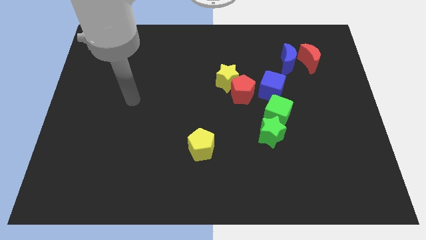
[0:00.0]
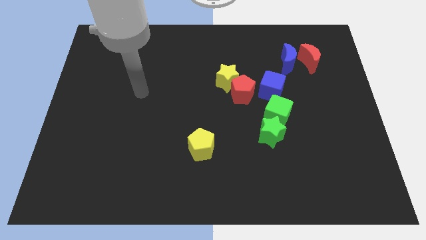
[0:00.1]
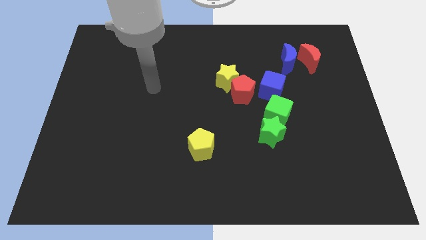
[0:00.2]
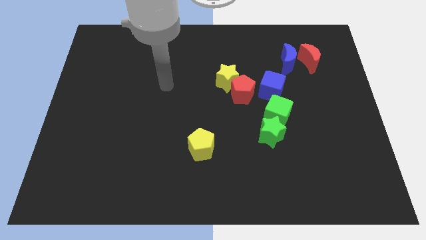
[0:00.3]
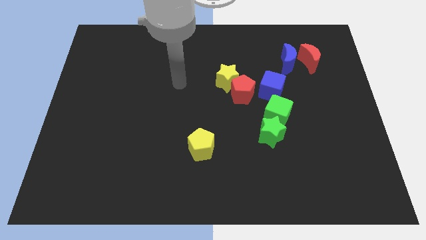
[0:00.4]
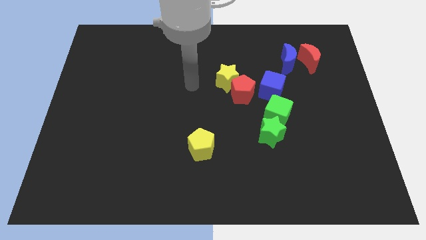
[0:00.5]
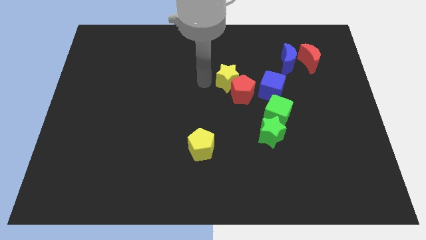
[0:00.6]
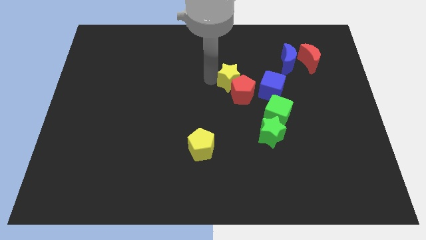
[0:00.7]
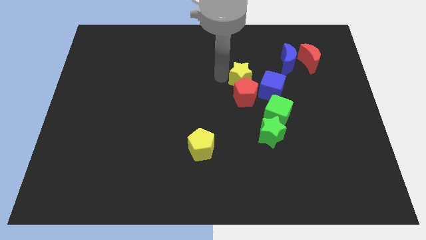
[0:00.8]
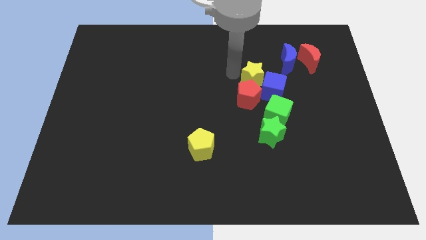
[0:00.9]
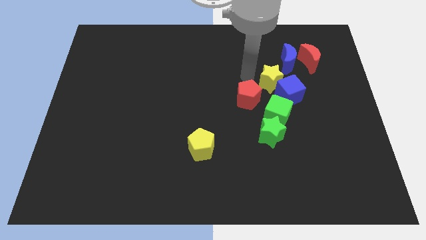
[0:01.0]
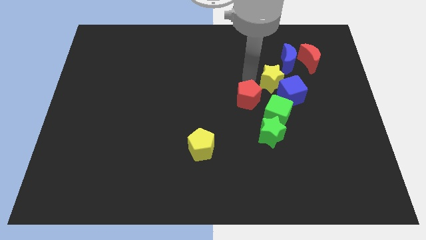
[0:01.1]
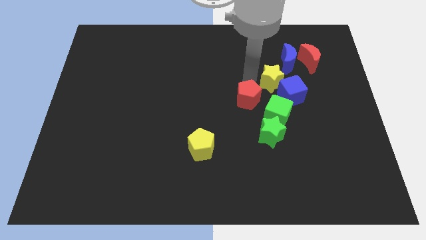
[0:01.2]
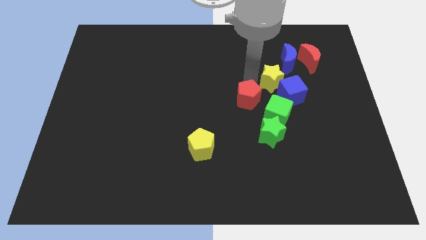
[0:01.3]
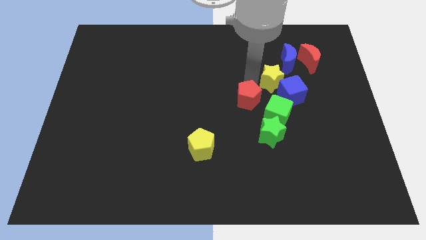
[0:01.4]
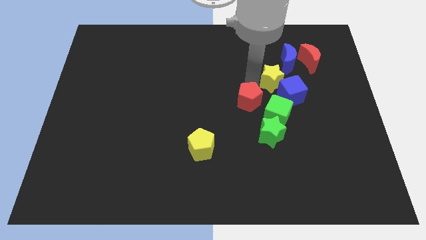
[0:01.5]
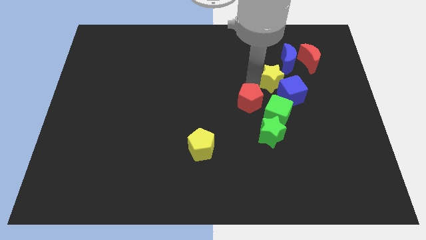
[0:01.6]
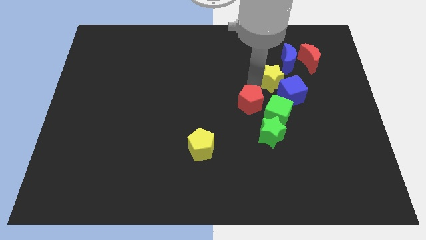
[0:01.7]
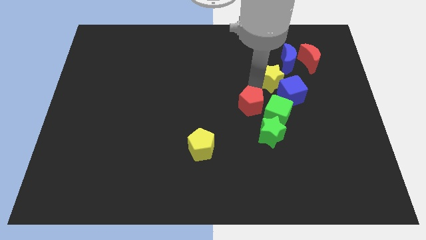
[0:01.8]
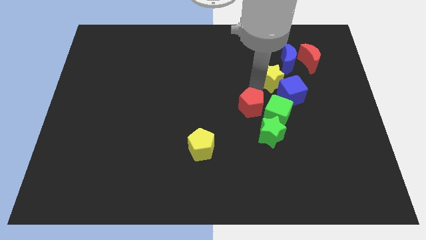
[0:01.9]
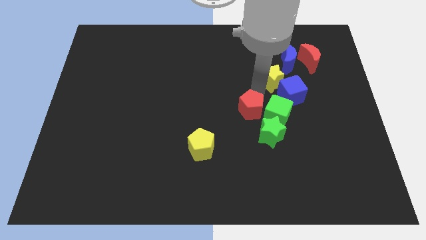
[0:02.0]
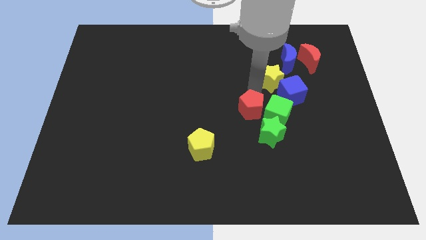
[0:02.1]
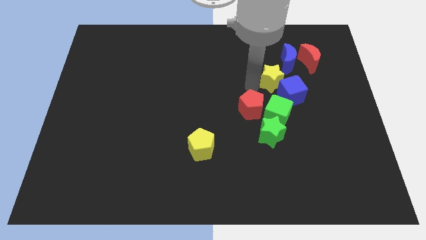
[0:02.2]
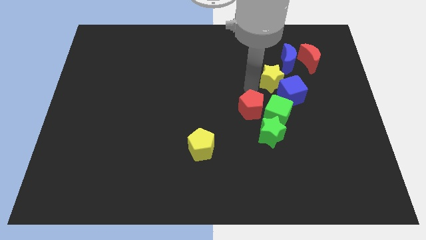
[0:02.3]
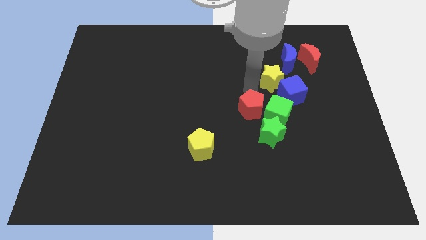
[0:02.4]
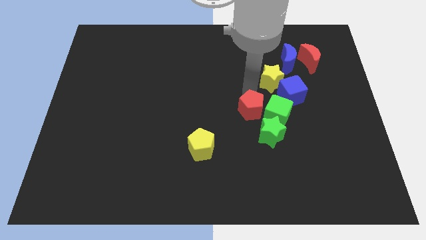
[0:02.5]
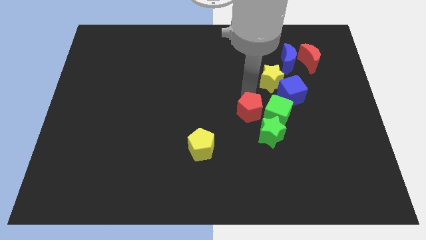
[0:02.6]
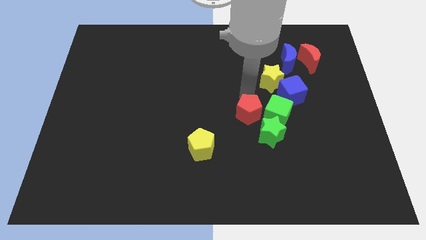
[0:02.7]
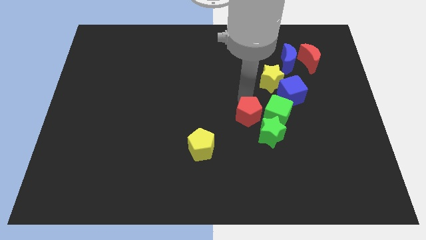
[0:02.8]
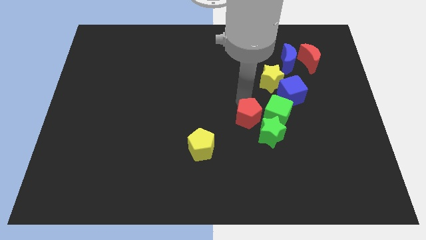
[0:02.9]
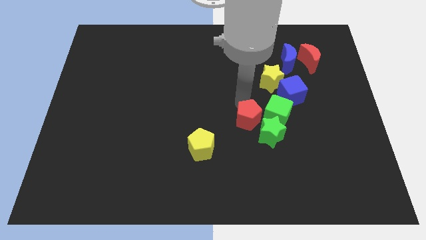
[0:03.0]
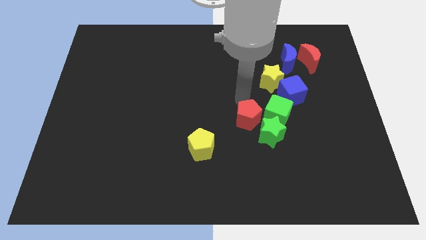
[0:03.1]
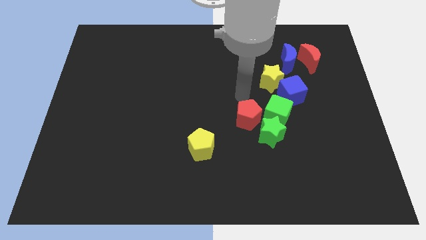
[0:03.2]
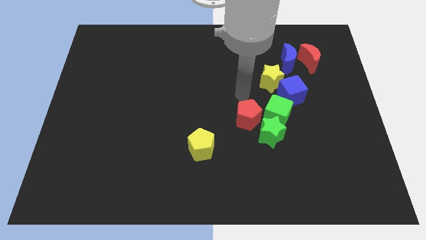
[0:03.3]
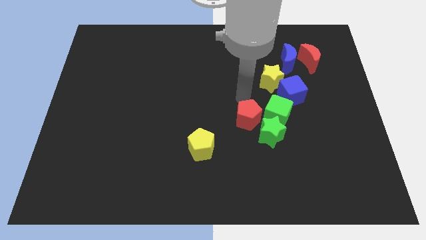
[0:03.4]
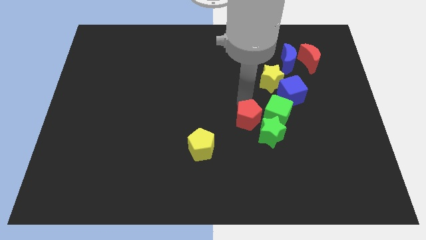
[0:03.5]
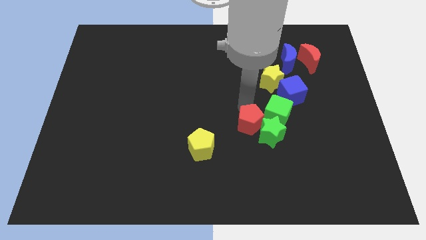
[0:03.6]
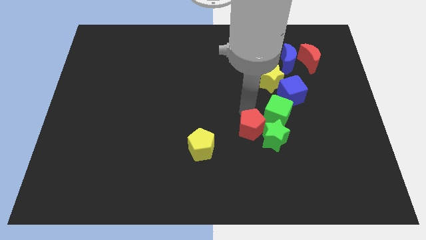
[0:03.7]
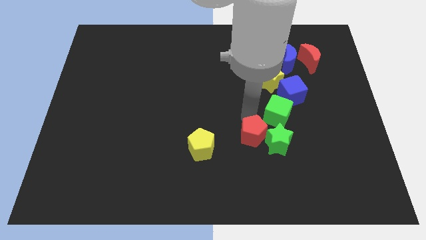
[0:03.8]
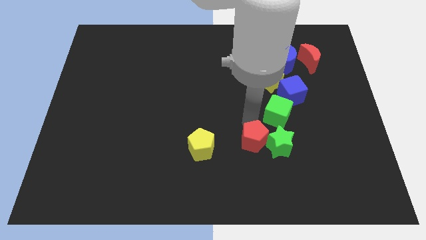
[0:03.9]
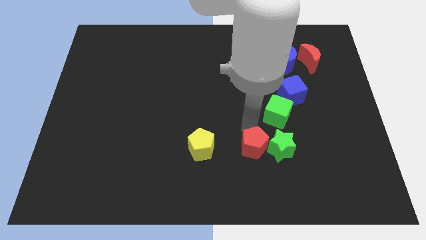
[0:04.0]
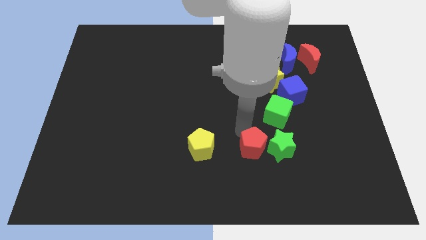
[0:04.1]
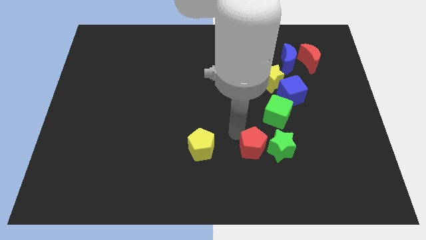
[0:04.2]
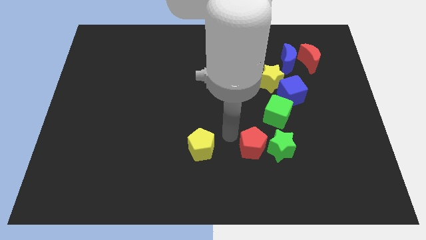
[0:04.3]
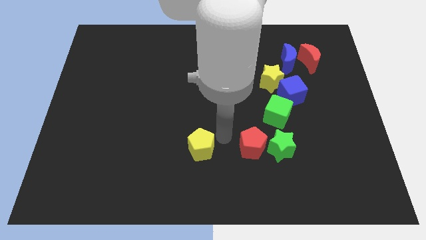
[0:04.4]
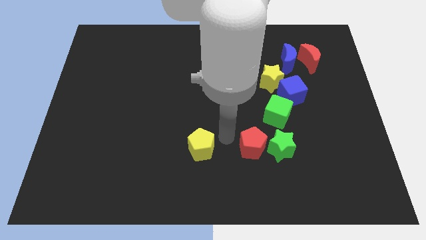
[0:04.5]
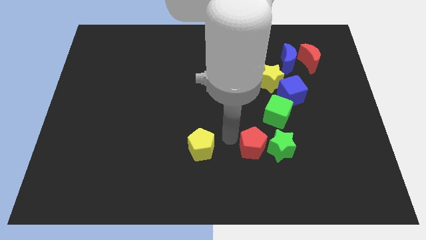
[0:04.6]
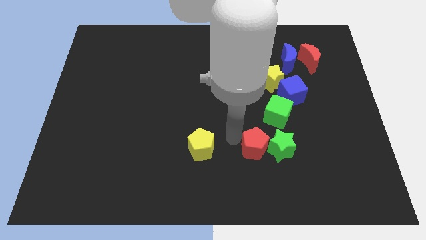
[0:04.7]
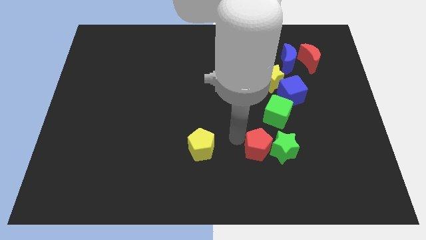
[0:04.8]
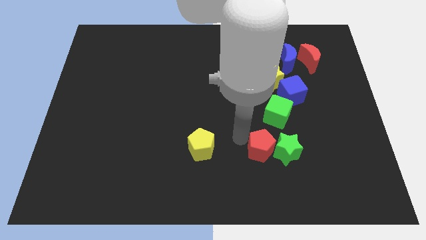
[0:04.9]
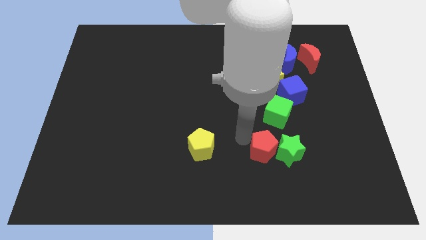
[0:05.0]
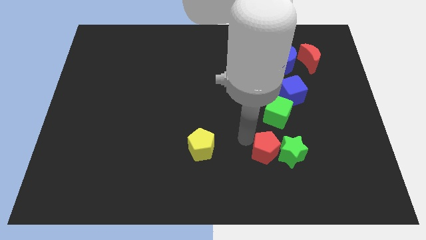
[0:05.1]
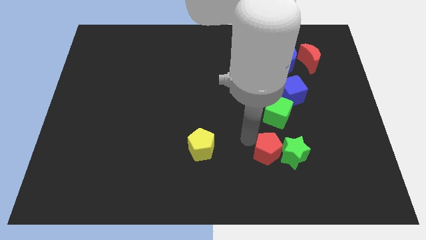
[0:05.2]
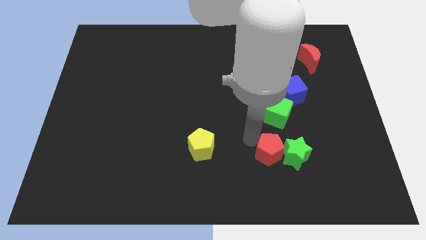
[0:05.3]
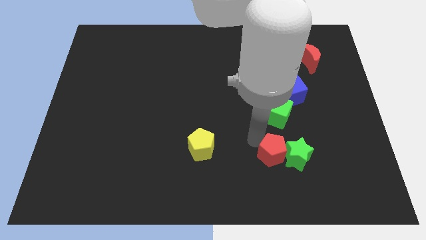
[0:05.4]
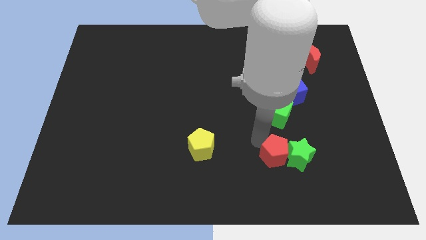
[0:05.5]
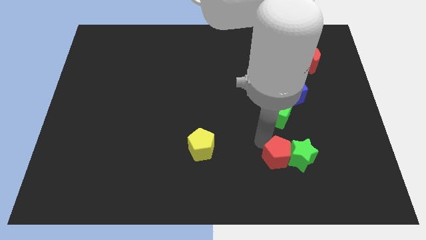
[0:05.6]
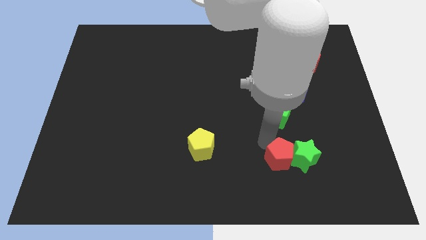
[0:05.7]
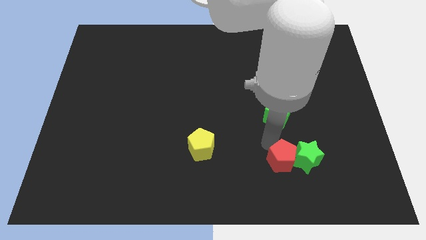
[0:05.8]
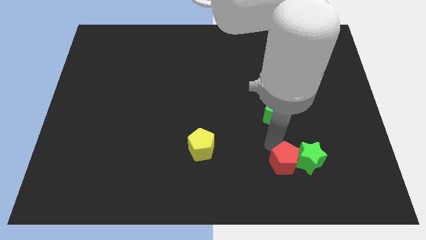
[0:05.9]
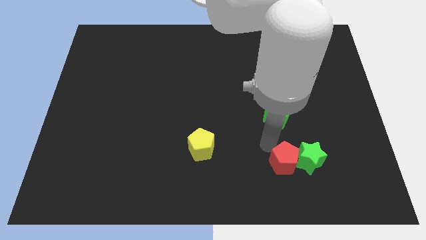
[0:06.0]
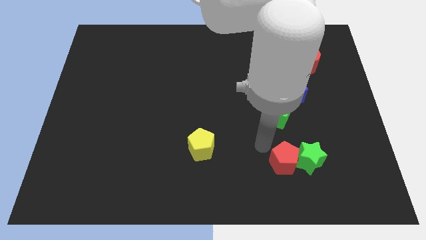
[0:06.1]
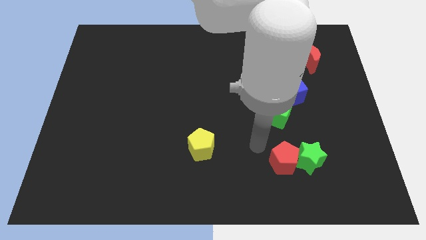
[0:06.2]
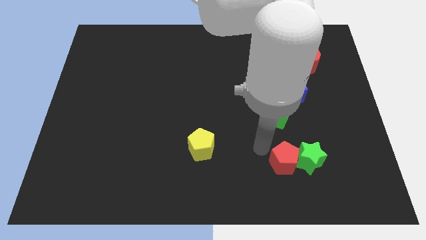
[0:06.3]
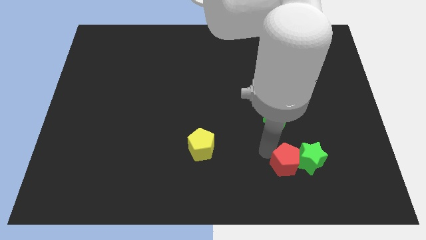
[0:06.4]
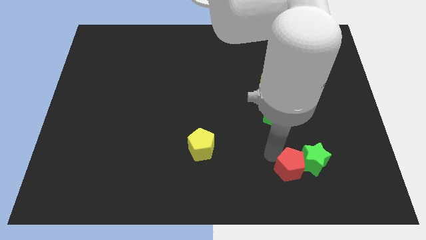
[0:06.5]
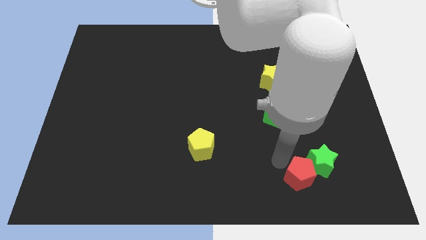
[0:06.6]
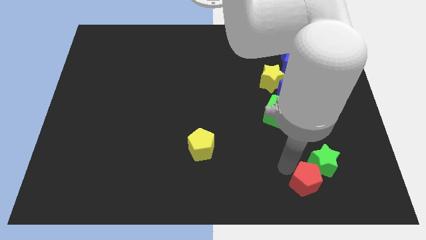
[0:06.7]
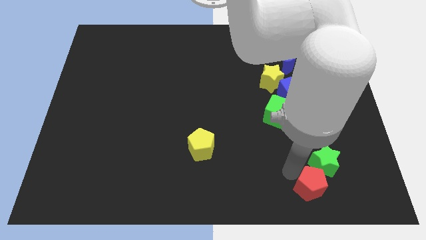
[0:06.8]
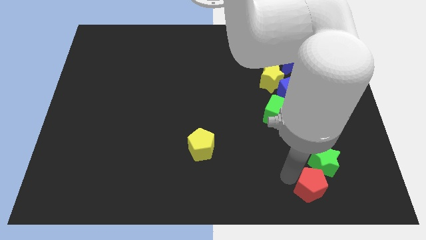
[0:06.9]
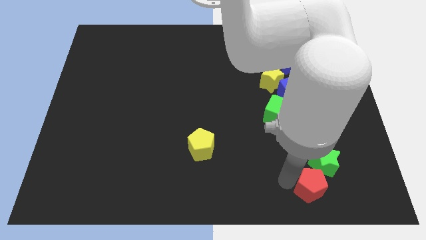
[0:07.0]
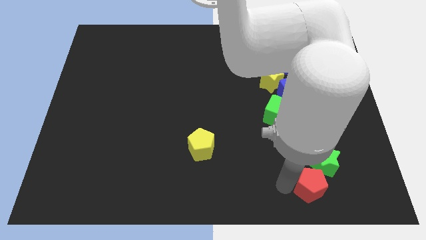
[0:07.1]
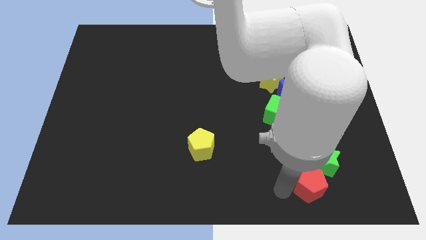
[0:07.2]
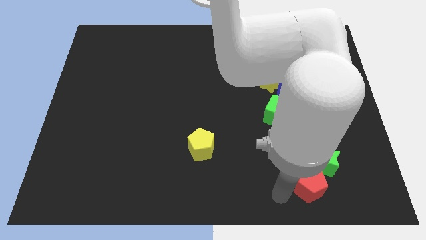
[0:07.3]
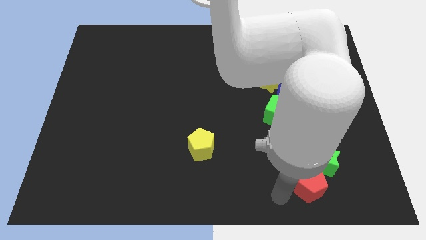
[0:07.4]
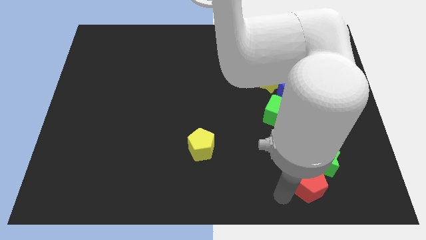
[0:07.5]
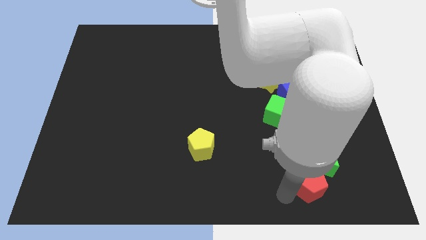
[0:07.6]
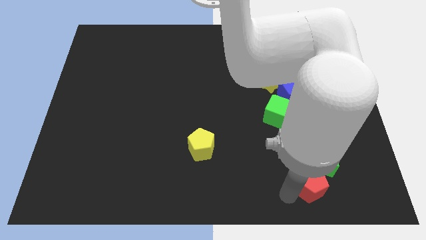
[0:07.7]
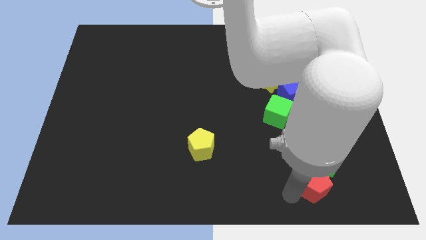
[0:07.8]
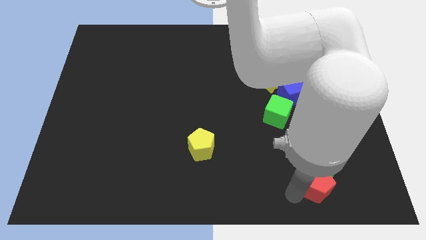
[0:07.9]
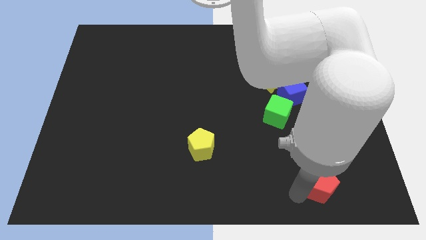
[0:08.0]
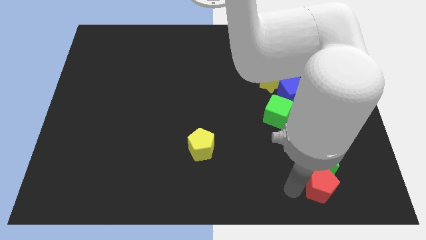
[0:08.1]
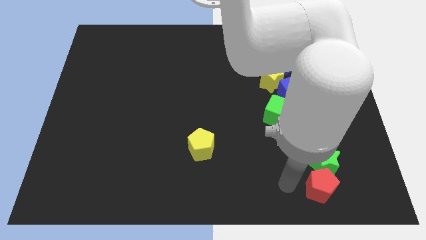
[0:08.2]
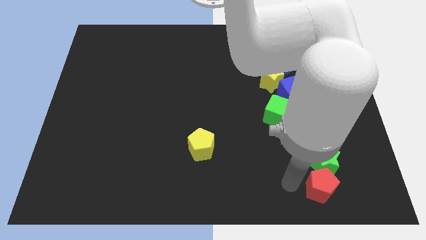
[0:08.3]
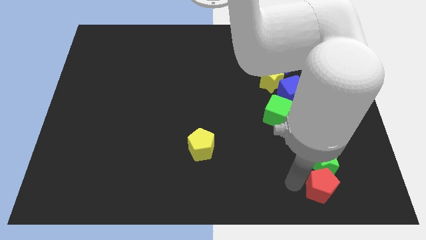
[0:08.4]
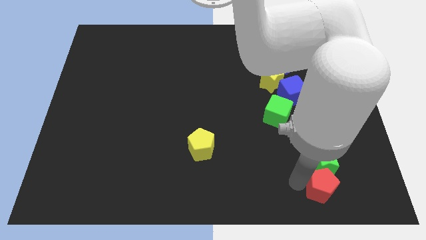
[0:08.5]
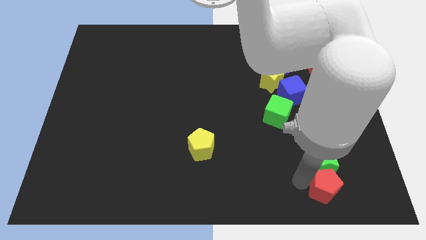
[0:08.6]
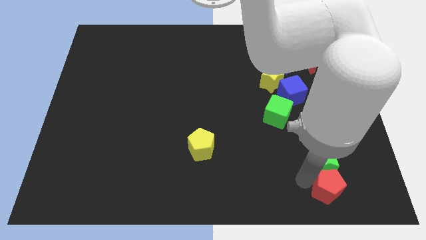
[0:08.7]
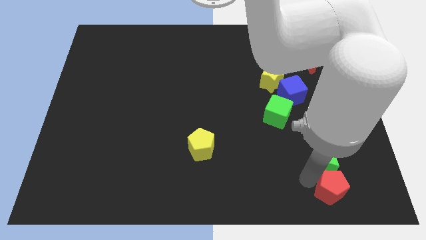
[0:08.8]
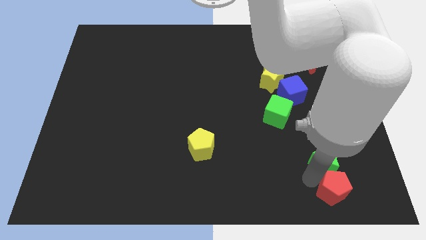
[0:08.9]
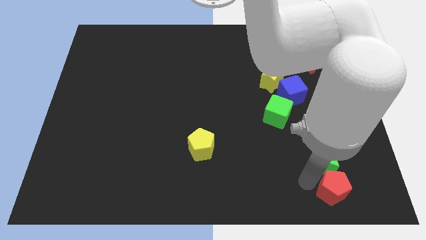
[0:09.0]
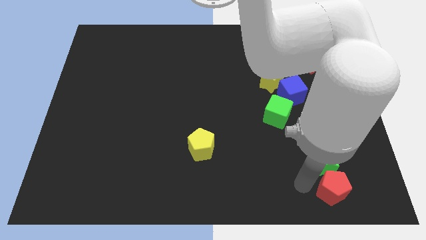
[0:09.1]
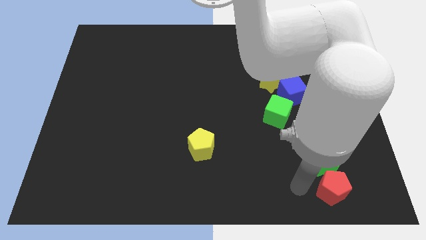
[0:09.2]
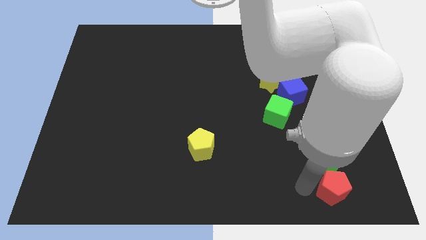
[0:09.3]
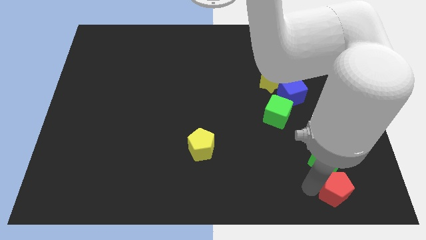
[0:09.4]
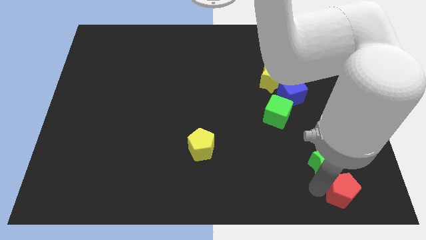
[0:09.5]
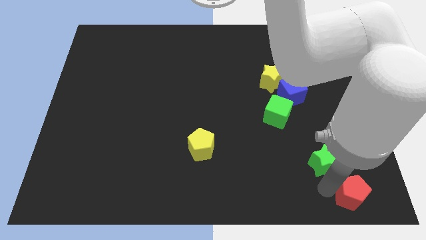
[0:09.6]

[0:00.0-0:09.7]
slide the red pentagon to the bottom right of the board
